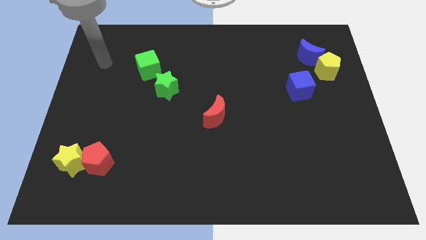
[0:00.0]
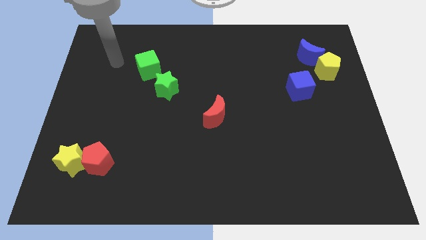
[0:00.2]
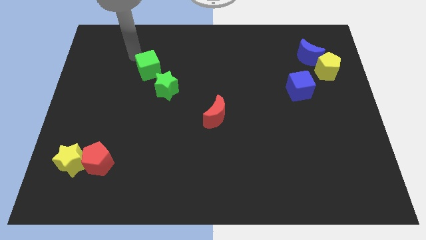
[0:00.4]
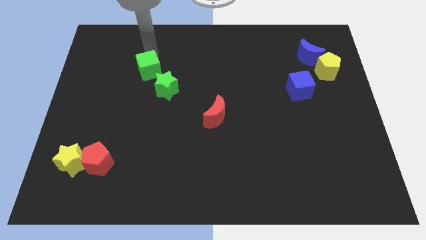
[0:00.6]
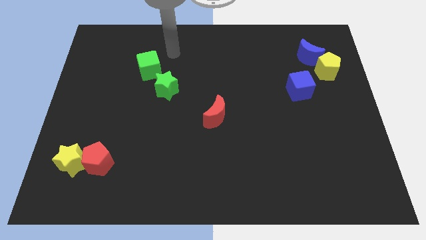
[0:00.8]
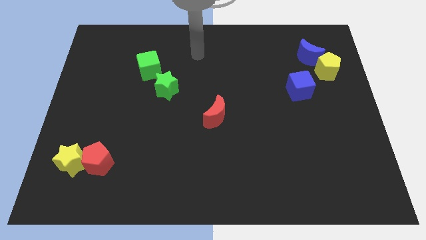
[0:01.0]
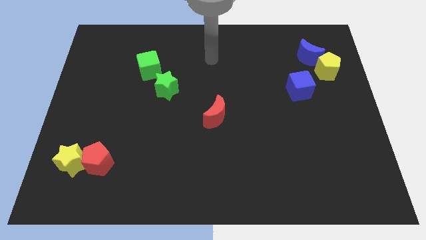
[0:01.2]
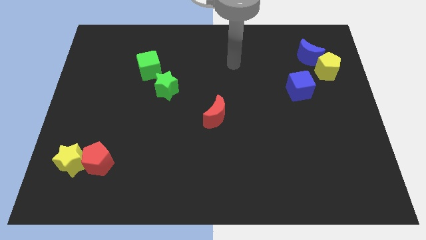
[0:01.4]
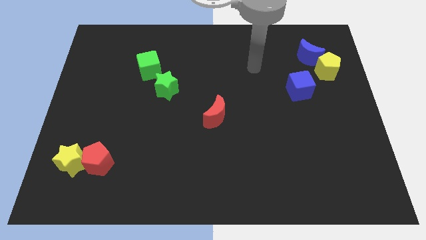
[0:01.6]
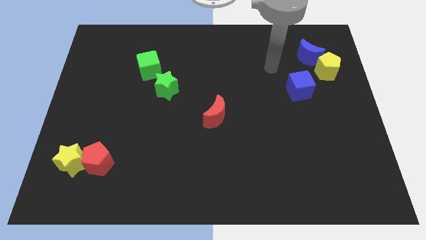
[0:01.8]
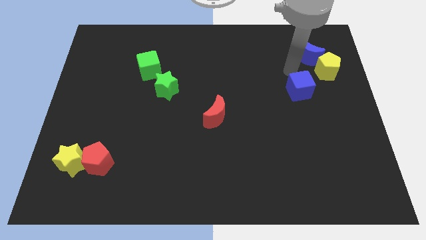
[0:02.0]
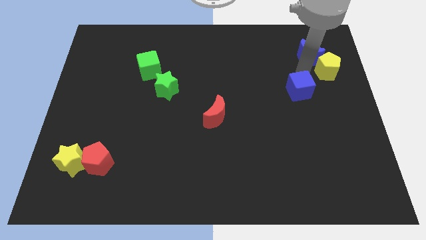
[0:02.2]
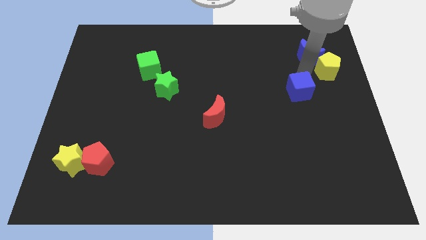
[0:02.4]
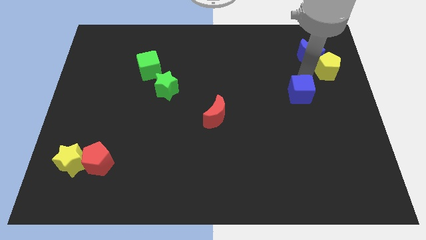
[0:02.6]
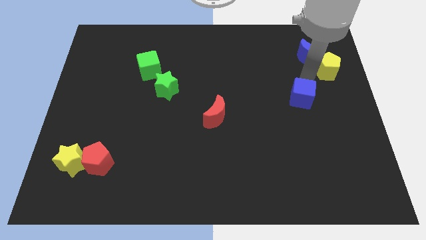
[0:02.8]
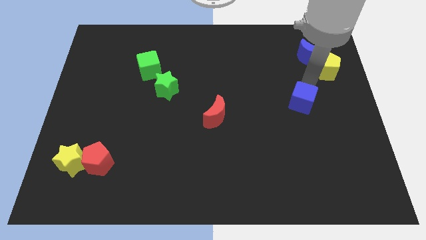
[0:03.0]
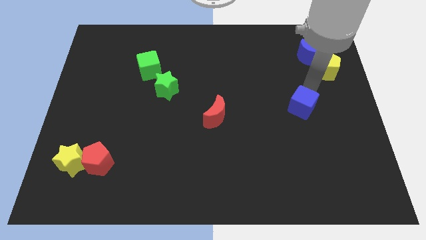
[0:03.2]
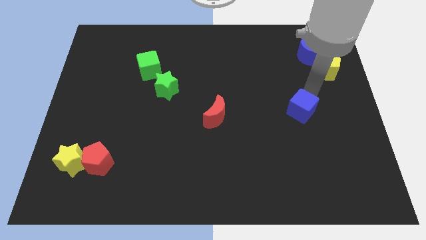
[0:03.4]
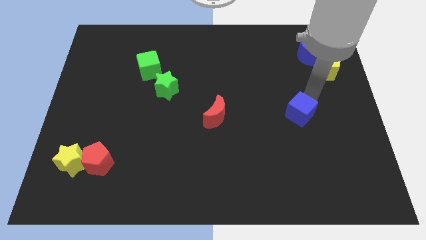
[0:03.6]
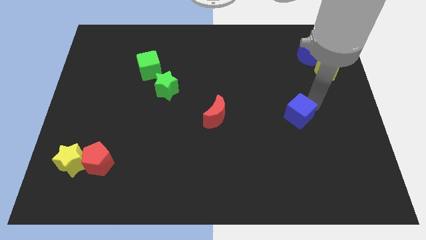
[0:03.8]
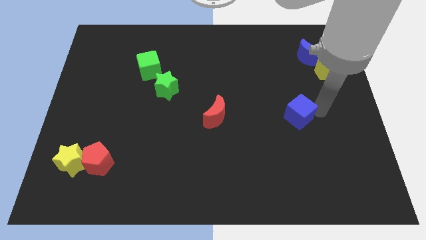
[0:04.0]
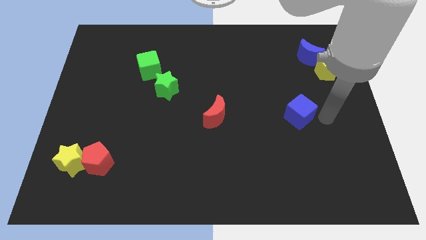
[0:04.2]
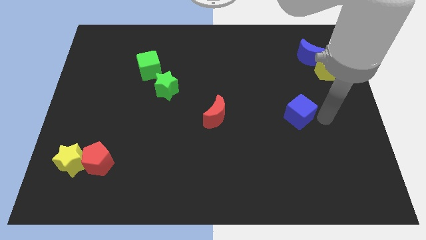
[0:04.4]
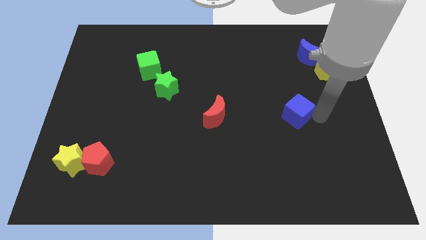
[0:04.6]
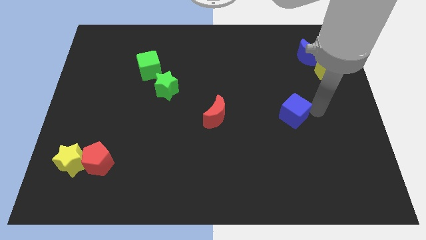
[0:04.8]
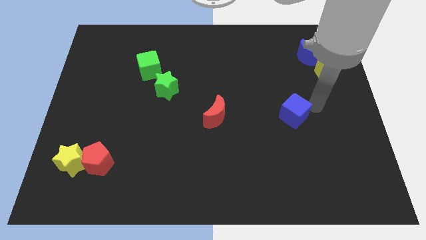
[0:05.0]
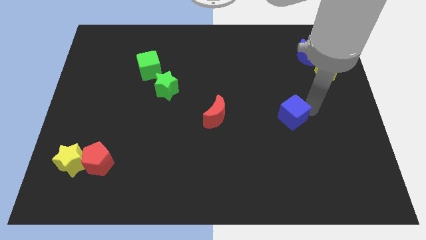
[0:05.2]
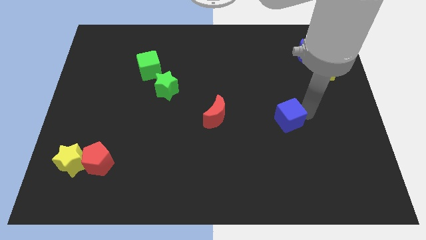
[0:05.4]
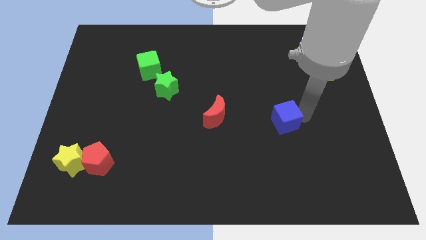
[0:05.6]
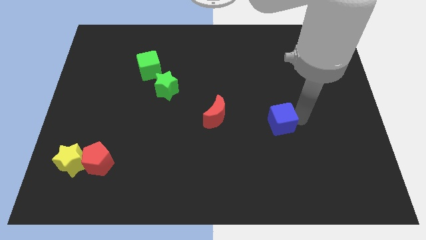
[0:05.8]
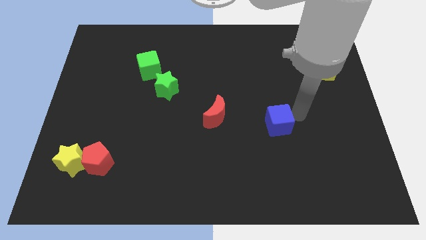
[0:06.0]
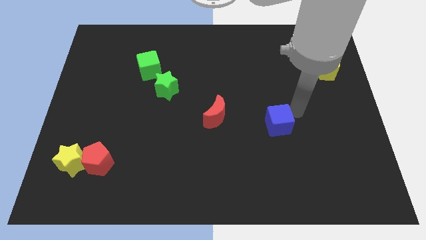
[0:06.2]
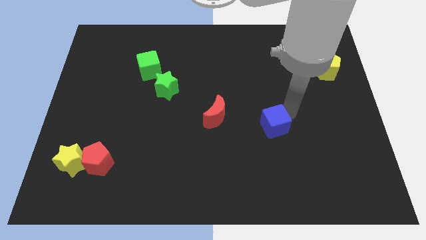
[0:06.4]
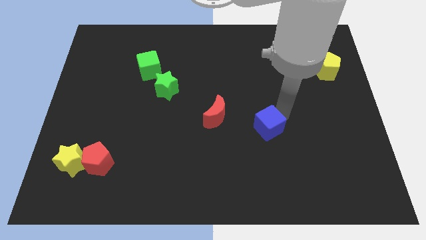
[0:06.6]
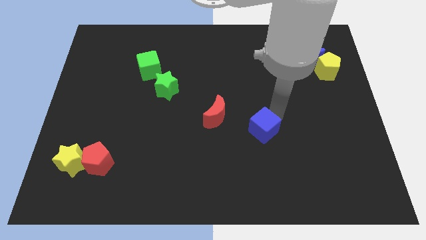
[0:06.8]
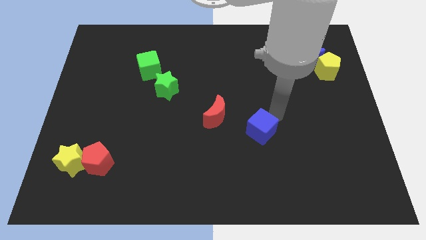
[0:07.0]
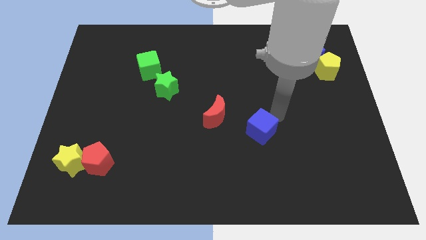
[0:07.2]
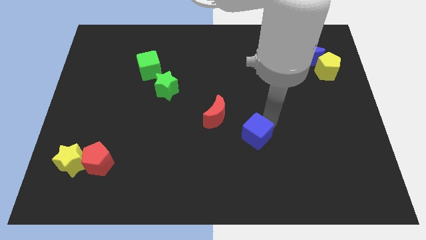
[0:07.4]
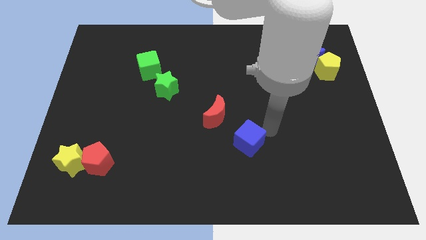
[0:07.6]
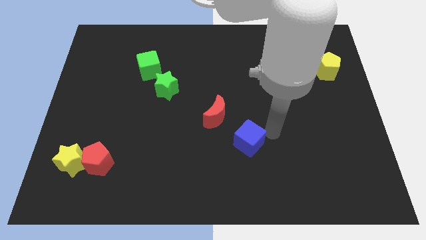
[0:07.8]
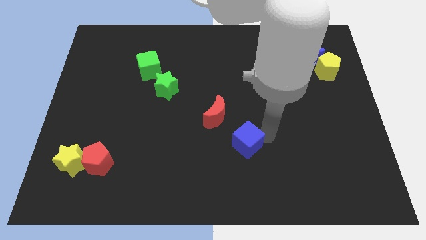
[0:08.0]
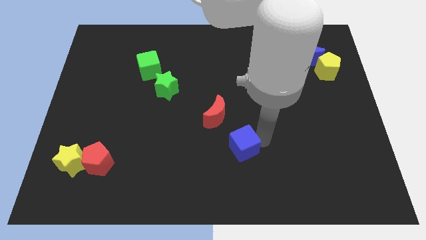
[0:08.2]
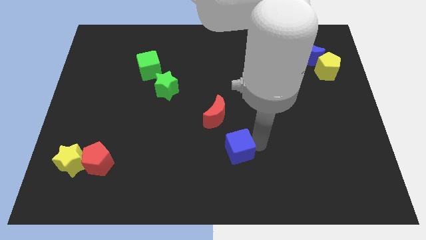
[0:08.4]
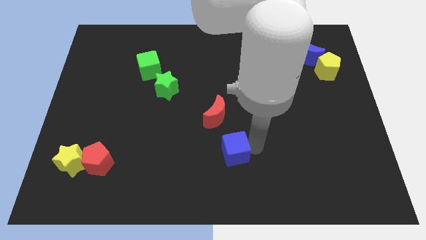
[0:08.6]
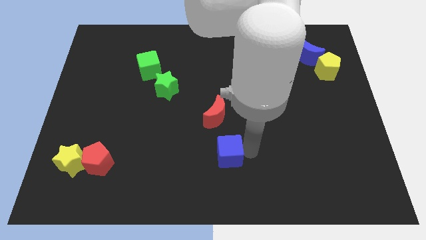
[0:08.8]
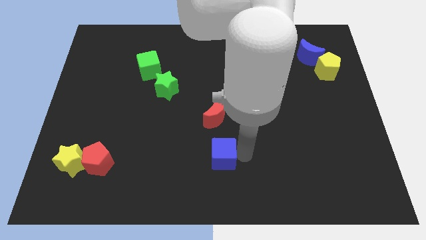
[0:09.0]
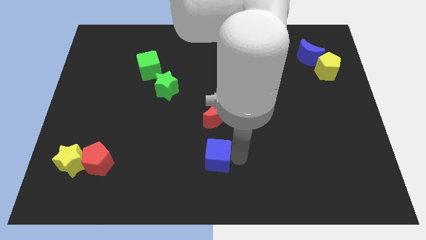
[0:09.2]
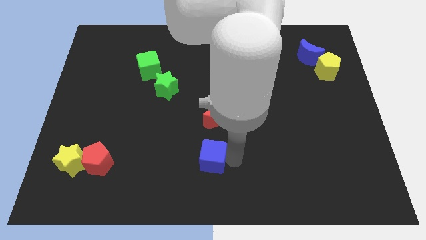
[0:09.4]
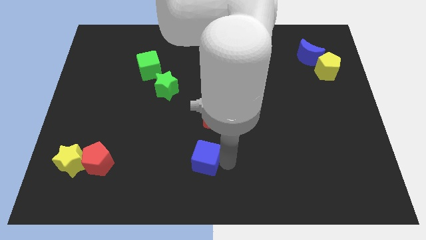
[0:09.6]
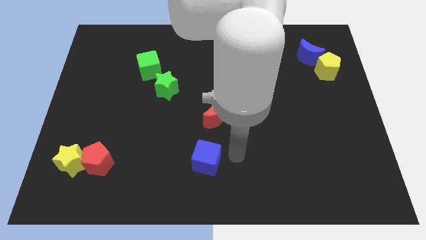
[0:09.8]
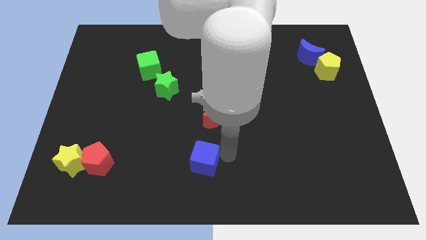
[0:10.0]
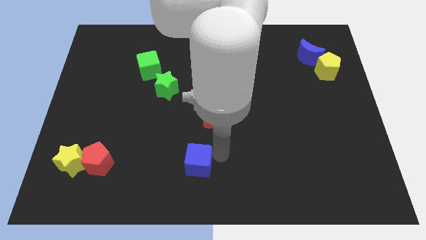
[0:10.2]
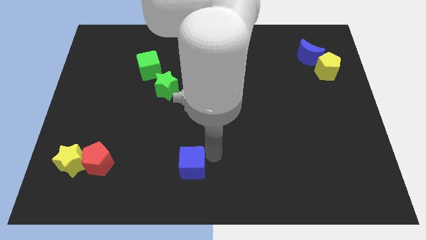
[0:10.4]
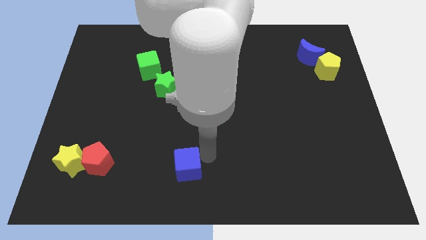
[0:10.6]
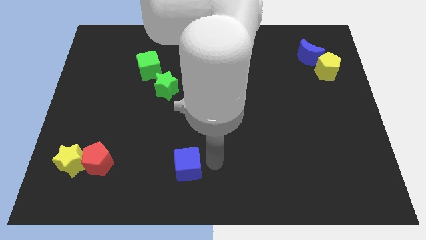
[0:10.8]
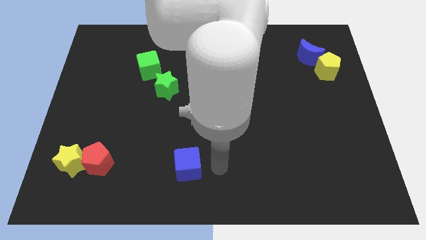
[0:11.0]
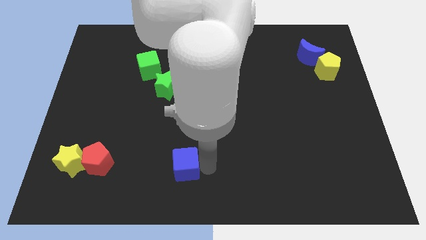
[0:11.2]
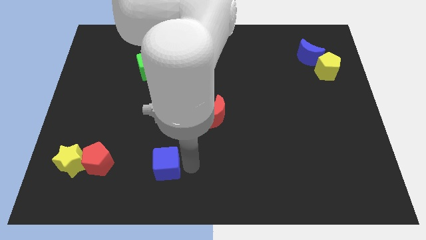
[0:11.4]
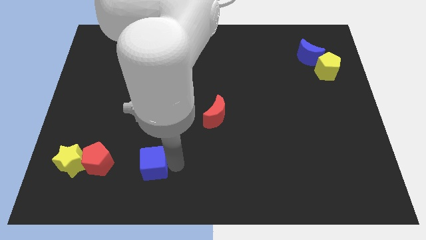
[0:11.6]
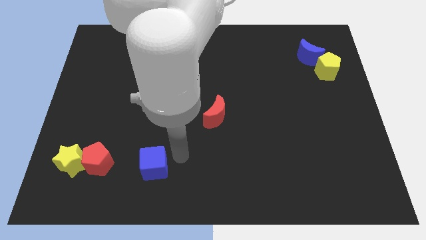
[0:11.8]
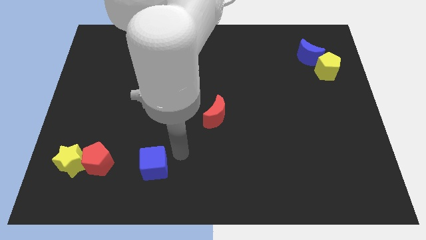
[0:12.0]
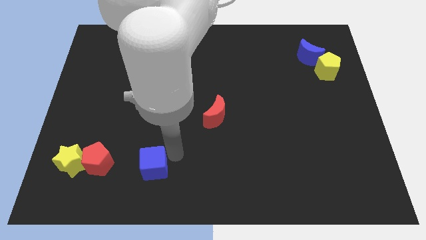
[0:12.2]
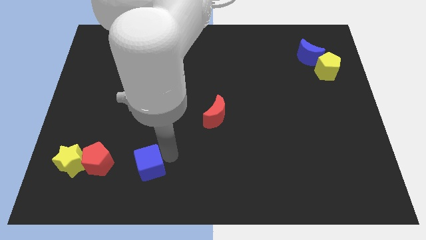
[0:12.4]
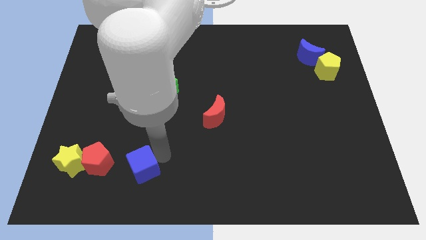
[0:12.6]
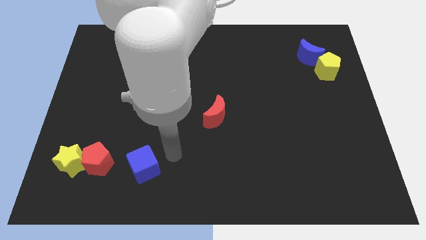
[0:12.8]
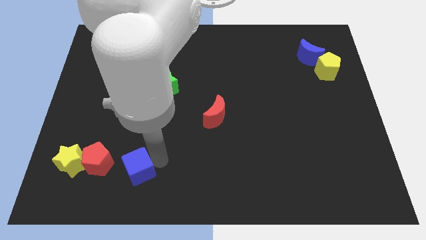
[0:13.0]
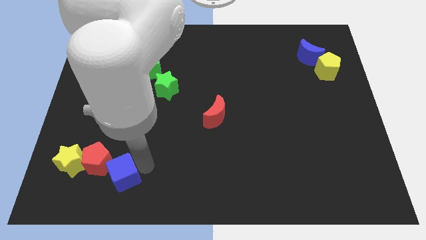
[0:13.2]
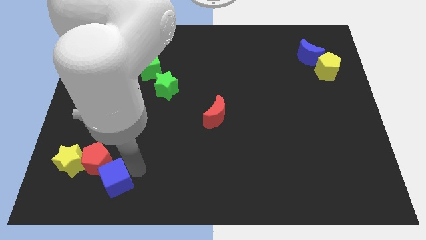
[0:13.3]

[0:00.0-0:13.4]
push the blue cube to the bottom right of the yellow star

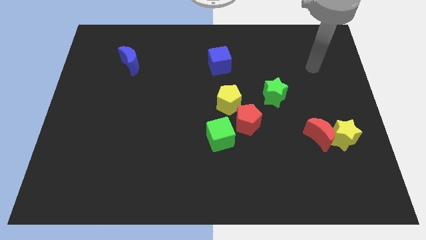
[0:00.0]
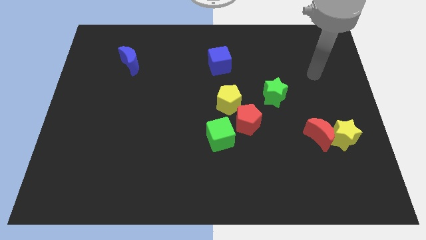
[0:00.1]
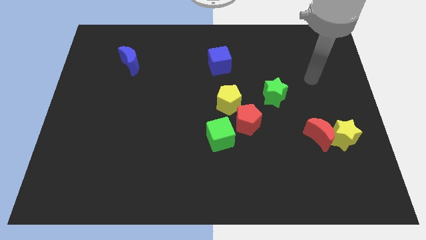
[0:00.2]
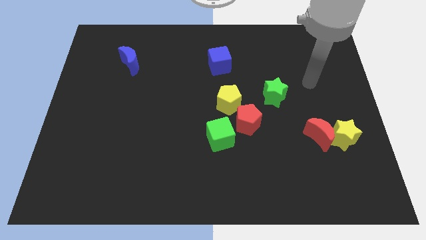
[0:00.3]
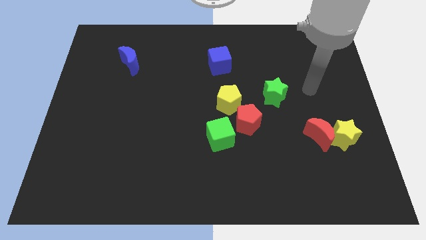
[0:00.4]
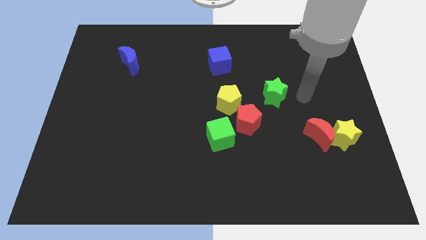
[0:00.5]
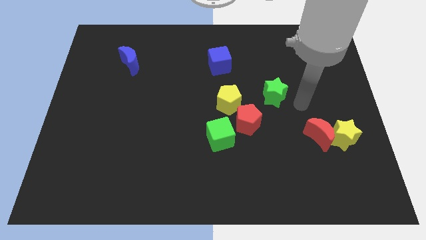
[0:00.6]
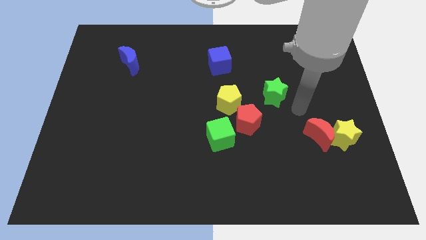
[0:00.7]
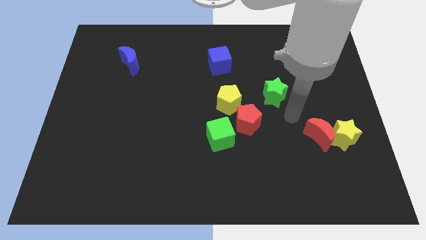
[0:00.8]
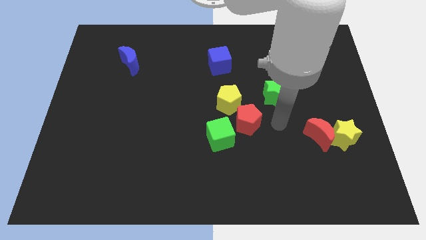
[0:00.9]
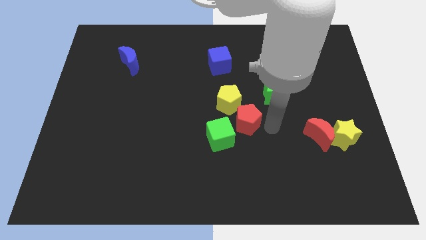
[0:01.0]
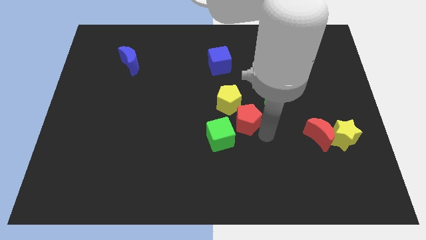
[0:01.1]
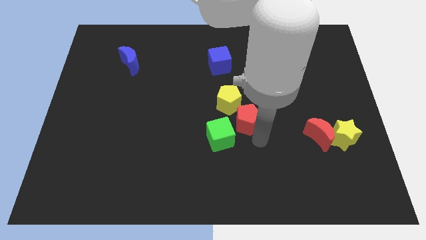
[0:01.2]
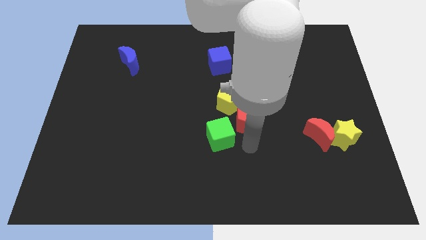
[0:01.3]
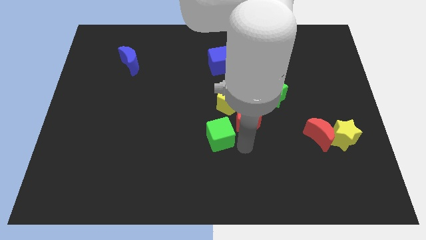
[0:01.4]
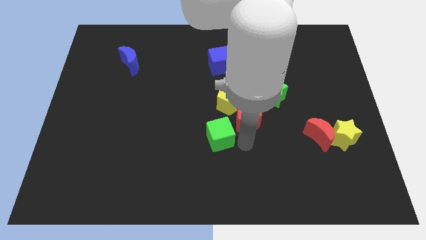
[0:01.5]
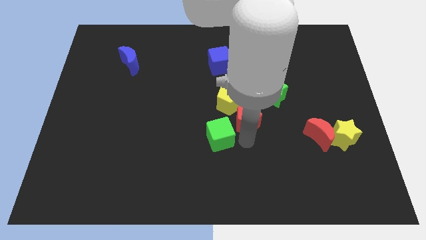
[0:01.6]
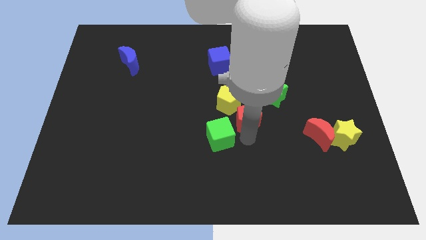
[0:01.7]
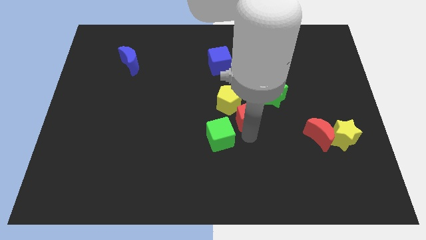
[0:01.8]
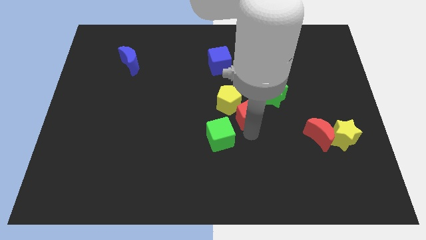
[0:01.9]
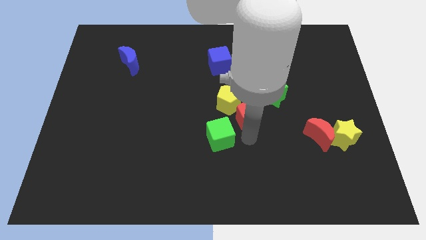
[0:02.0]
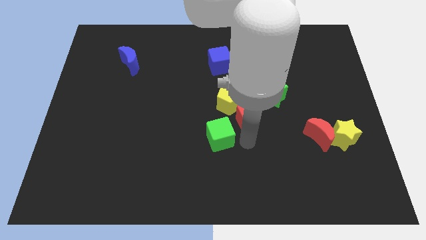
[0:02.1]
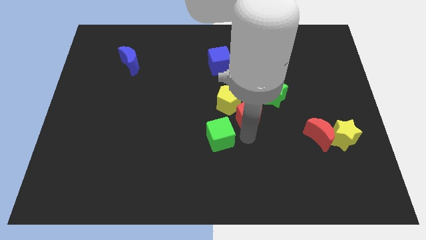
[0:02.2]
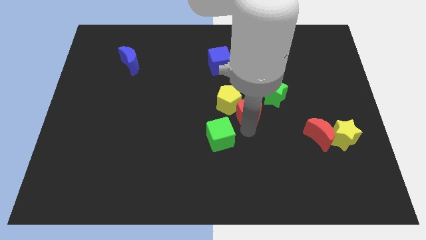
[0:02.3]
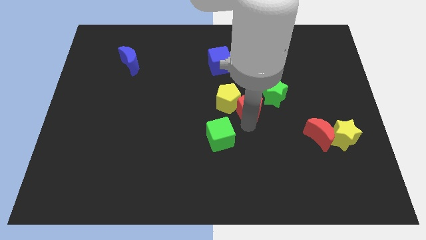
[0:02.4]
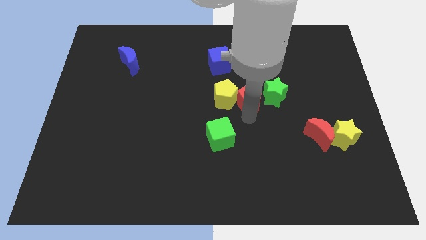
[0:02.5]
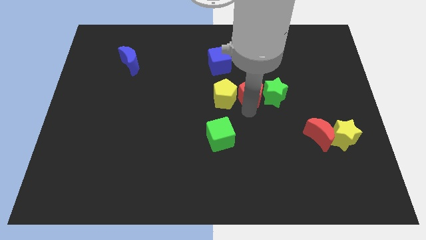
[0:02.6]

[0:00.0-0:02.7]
slide the red pentagon to the top left side of the green star
